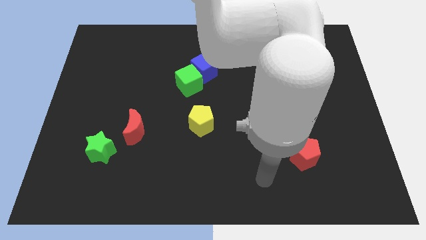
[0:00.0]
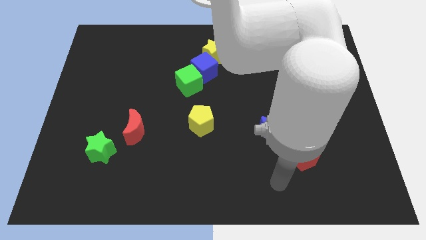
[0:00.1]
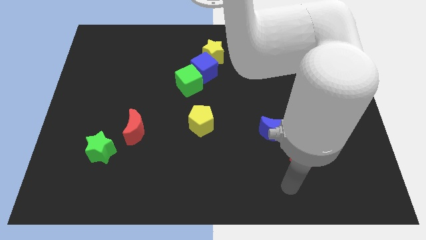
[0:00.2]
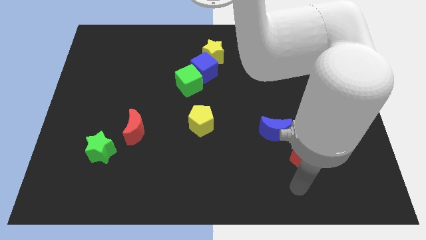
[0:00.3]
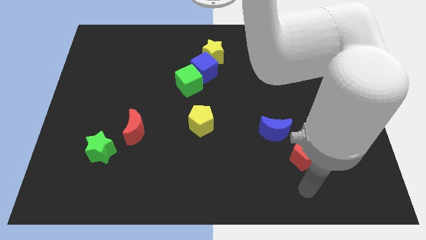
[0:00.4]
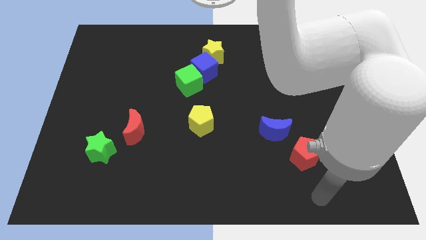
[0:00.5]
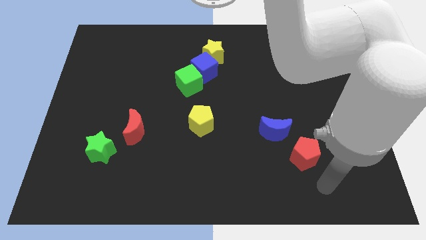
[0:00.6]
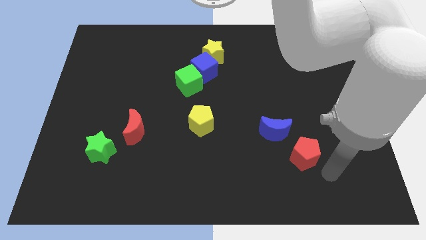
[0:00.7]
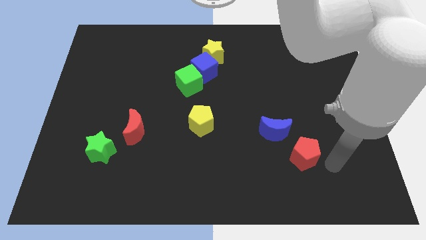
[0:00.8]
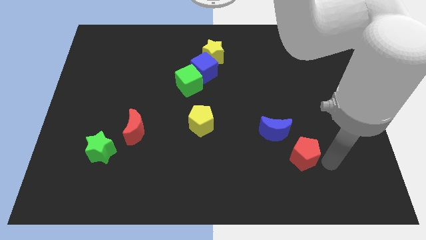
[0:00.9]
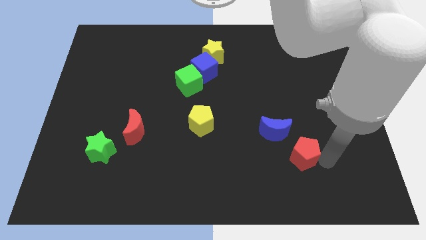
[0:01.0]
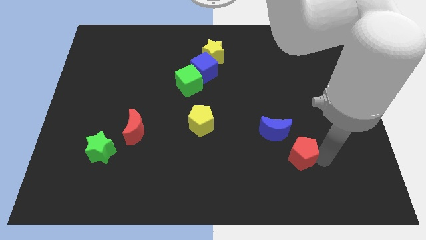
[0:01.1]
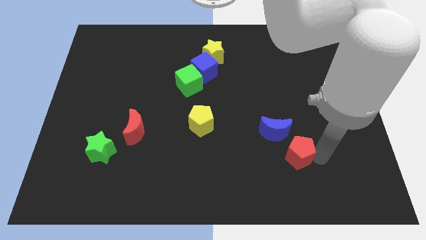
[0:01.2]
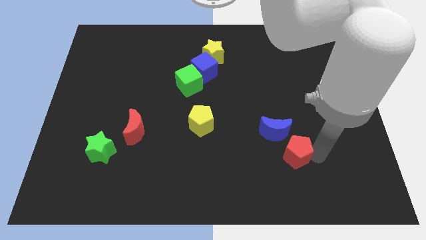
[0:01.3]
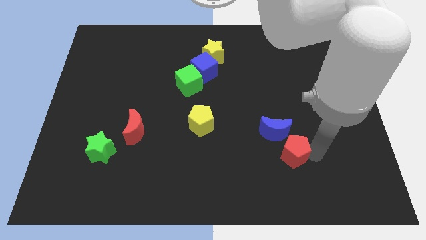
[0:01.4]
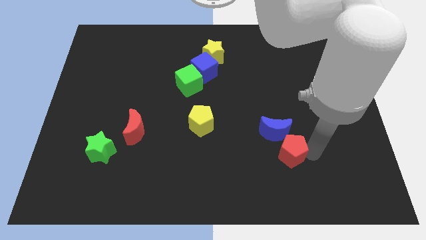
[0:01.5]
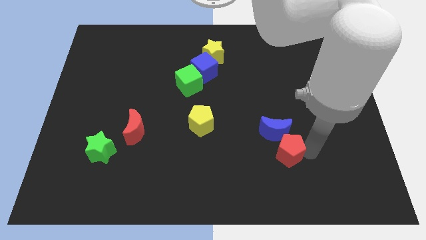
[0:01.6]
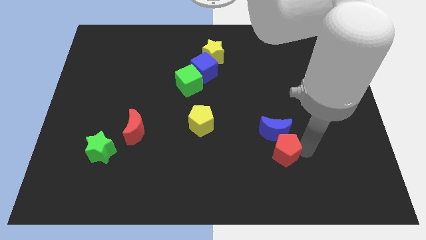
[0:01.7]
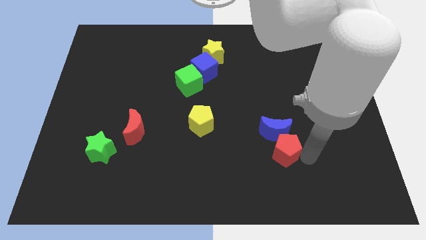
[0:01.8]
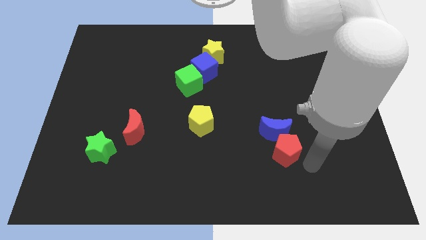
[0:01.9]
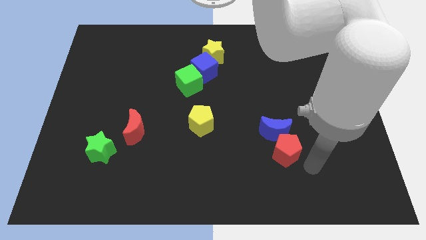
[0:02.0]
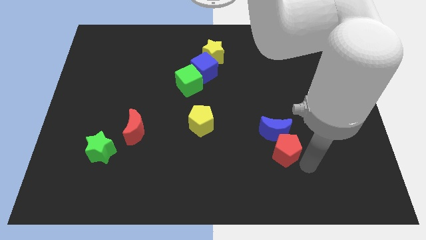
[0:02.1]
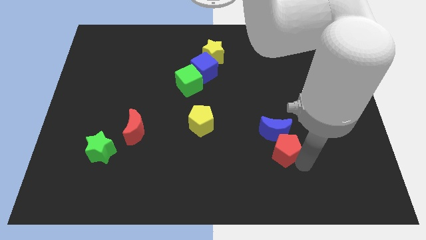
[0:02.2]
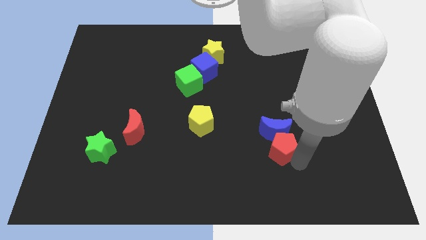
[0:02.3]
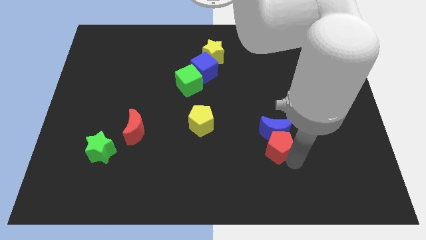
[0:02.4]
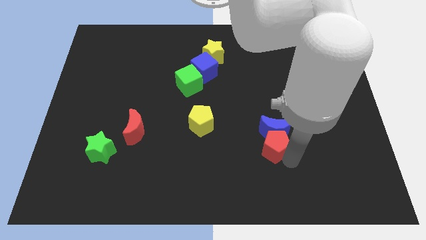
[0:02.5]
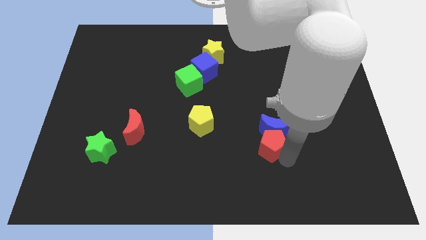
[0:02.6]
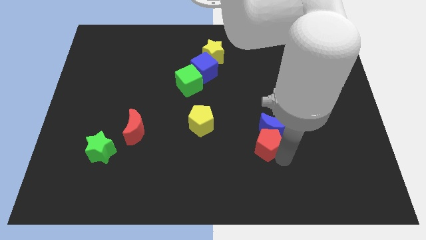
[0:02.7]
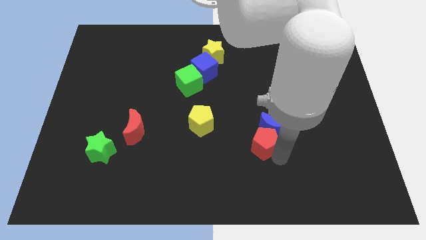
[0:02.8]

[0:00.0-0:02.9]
move the red pentagon diagonally upwards and to the left somewhat

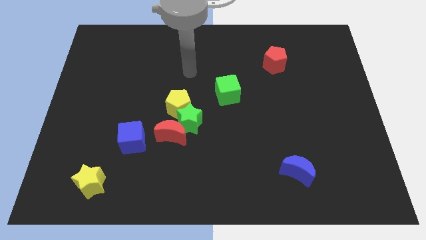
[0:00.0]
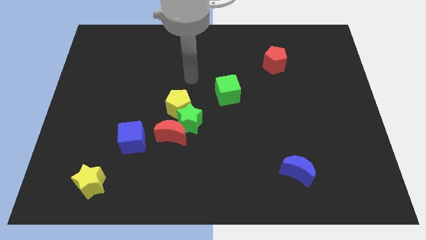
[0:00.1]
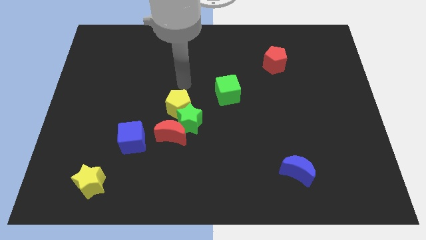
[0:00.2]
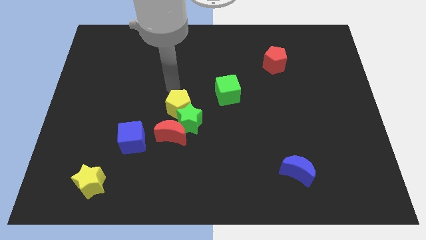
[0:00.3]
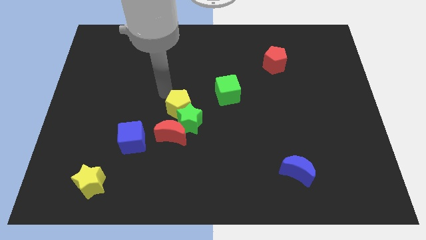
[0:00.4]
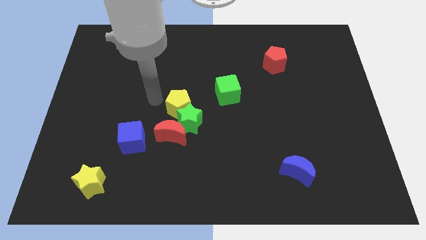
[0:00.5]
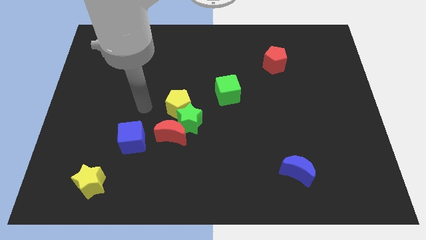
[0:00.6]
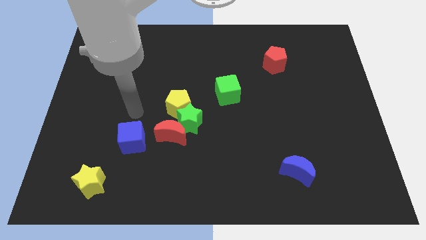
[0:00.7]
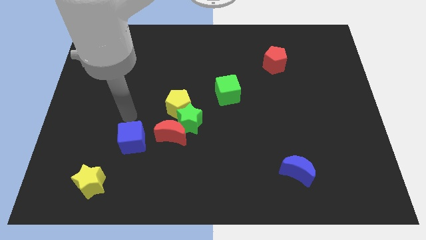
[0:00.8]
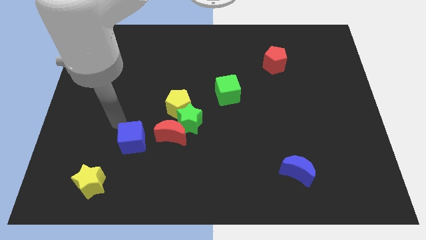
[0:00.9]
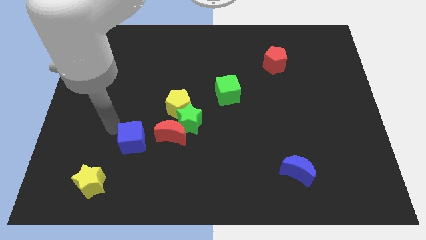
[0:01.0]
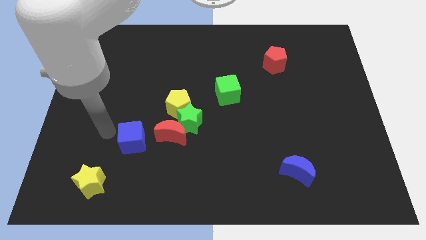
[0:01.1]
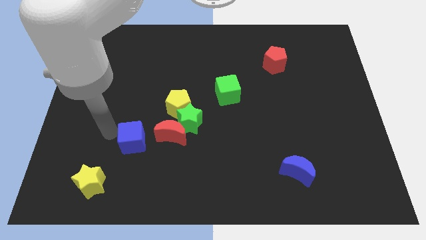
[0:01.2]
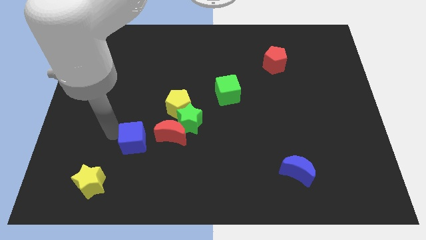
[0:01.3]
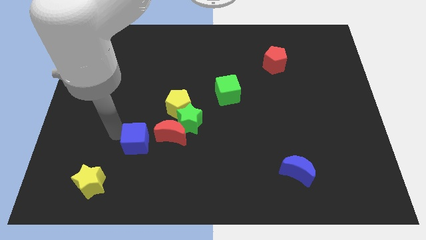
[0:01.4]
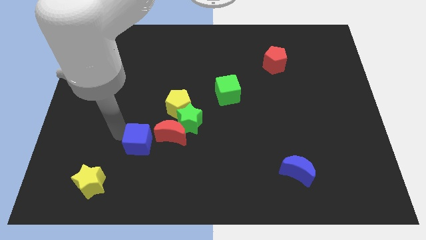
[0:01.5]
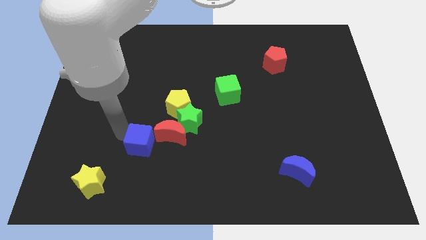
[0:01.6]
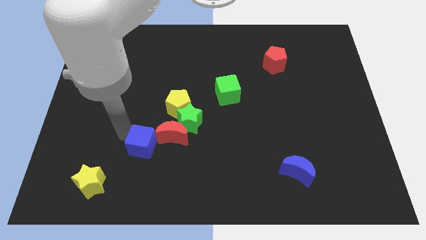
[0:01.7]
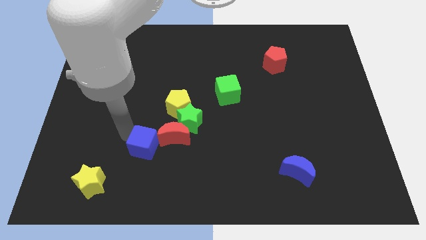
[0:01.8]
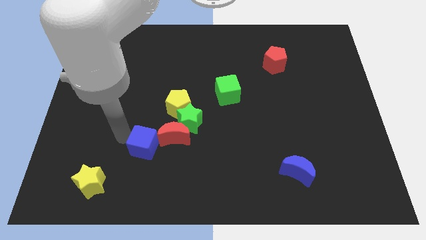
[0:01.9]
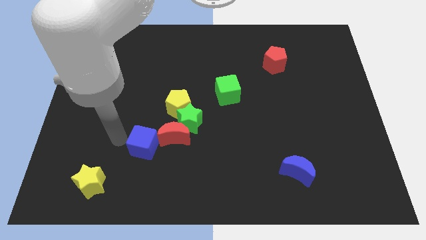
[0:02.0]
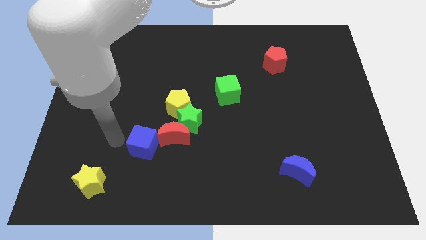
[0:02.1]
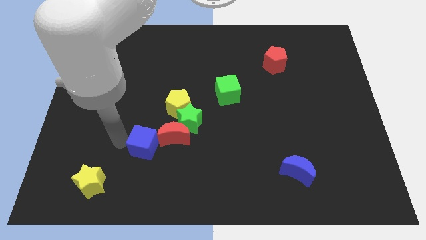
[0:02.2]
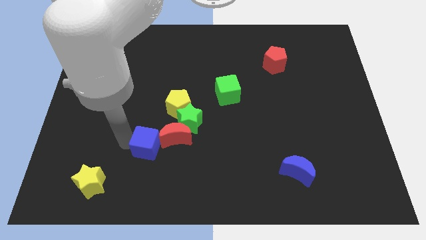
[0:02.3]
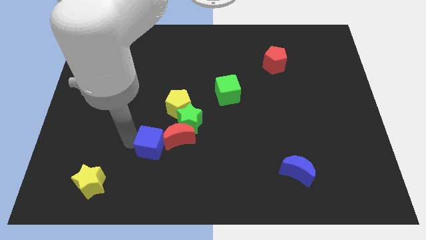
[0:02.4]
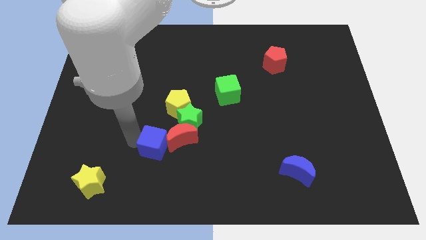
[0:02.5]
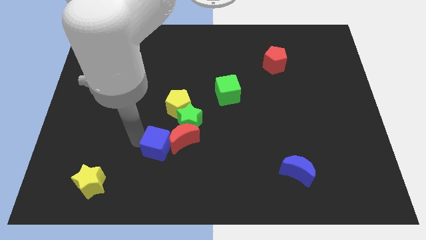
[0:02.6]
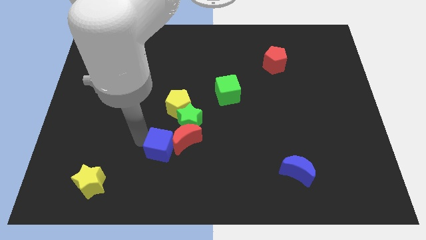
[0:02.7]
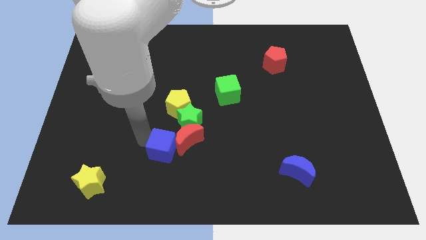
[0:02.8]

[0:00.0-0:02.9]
slide the blue cube a little to the right

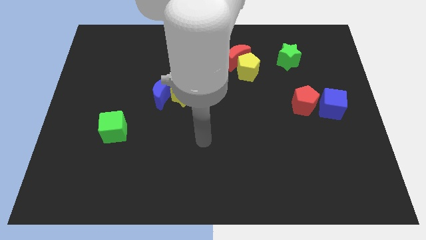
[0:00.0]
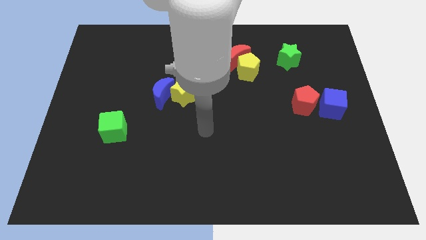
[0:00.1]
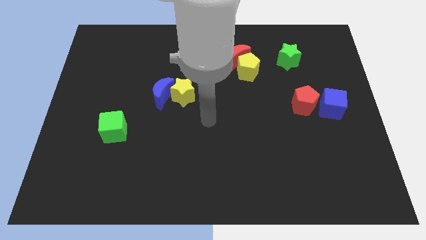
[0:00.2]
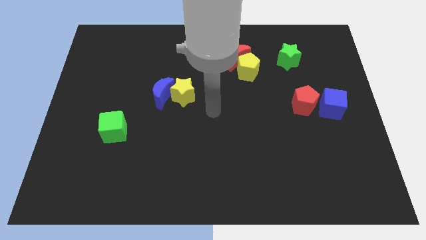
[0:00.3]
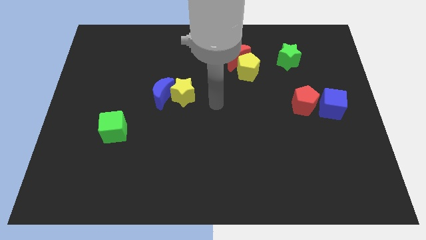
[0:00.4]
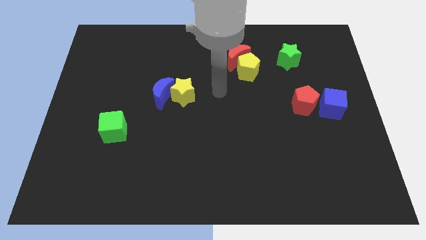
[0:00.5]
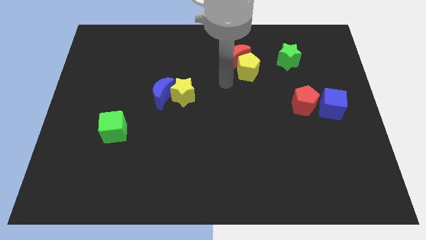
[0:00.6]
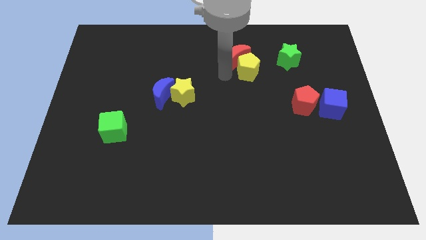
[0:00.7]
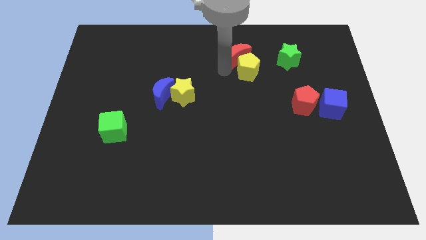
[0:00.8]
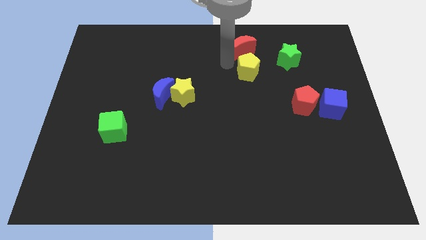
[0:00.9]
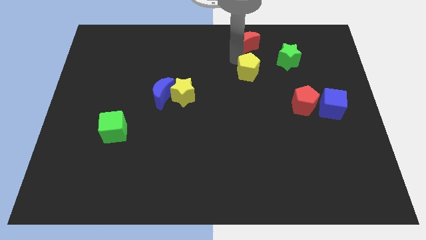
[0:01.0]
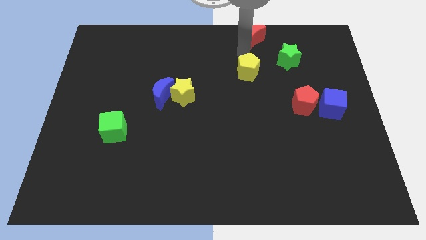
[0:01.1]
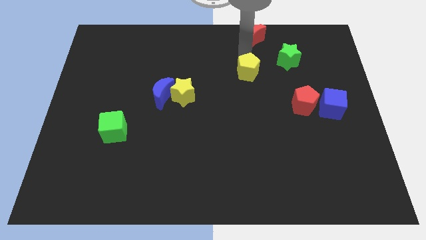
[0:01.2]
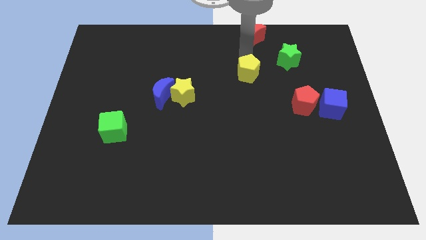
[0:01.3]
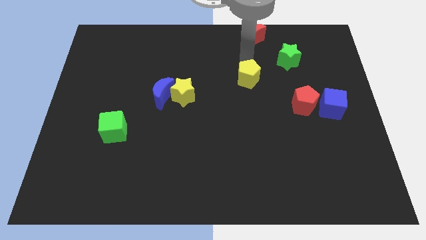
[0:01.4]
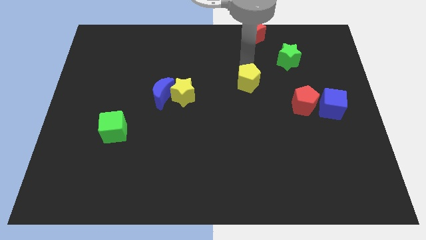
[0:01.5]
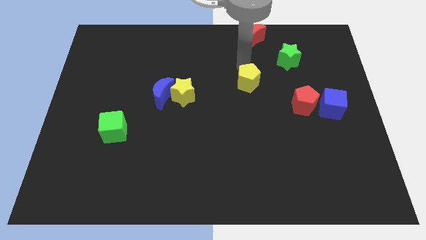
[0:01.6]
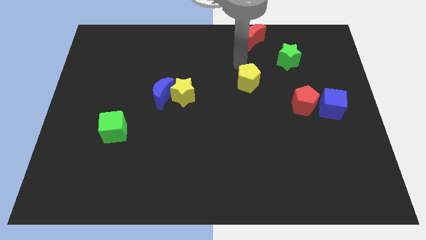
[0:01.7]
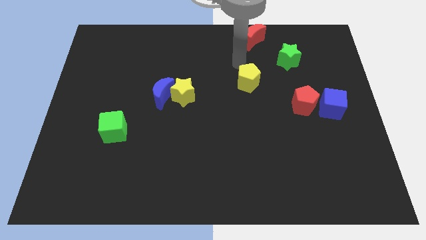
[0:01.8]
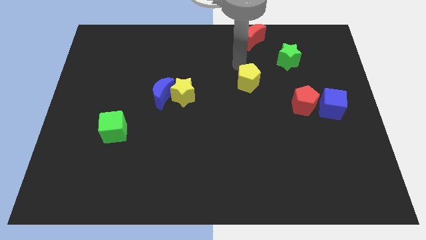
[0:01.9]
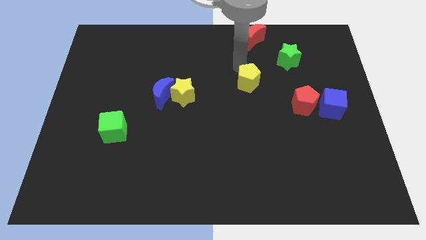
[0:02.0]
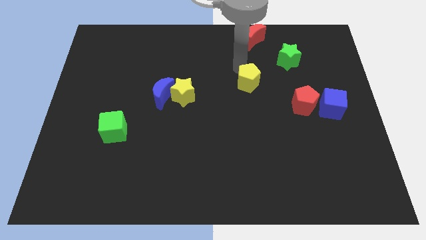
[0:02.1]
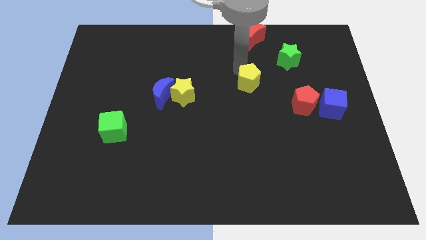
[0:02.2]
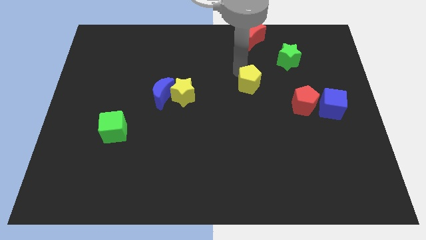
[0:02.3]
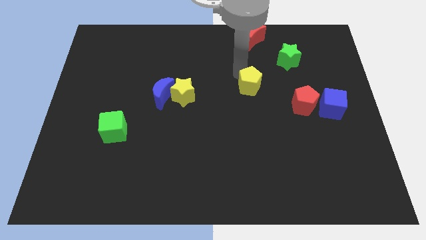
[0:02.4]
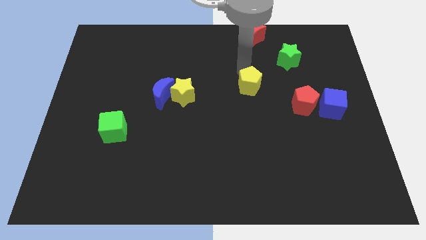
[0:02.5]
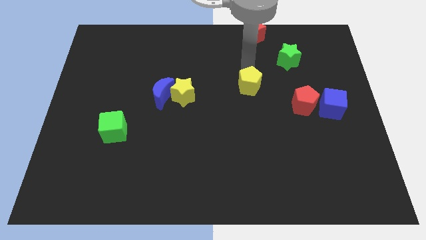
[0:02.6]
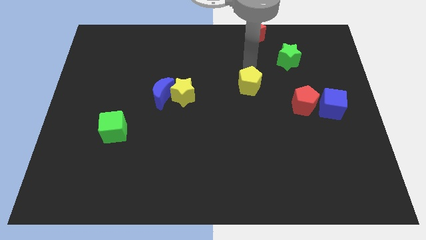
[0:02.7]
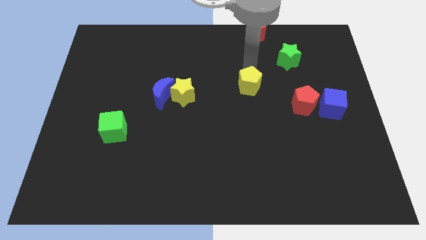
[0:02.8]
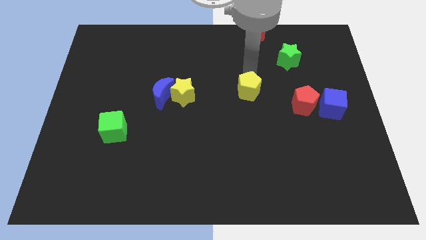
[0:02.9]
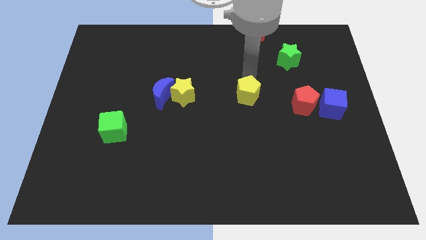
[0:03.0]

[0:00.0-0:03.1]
push the yellow pentagon a little down
